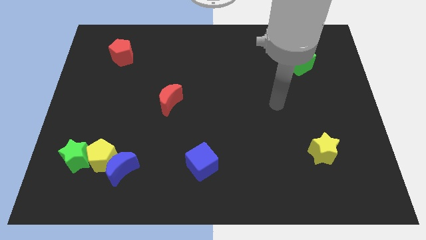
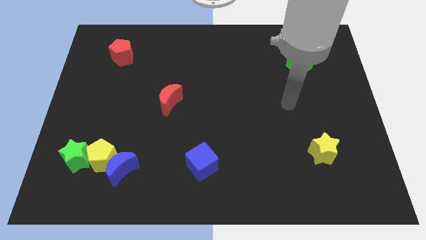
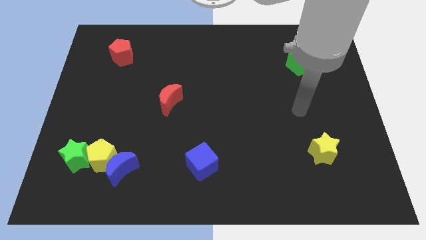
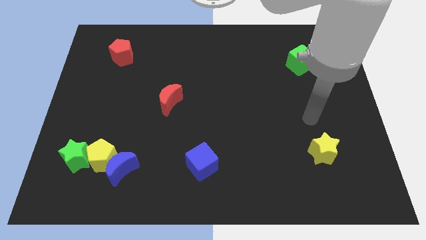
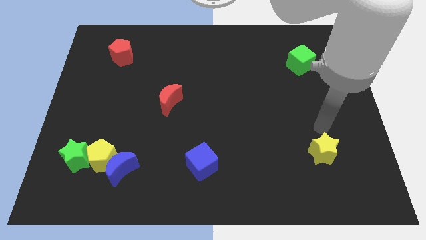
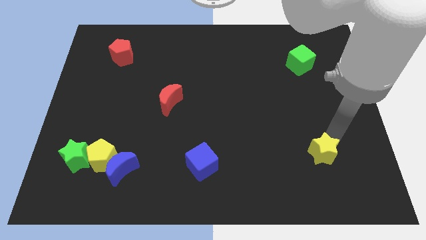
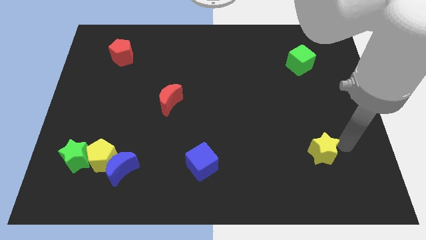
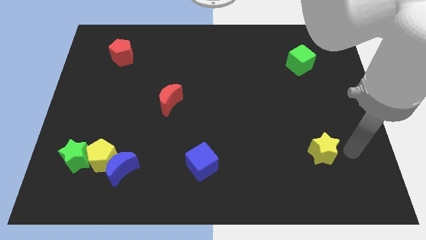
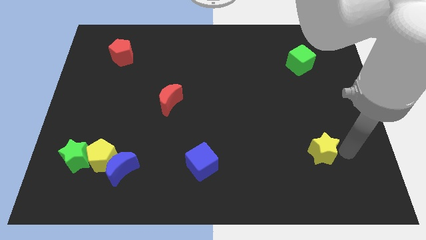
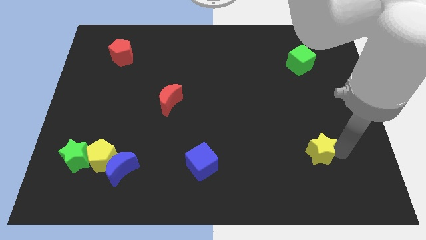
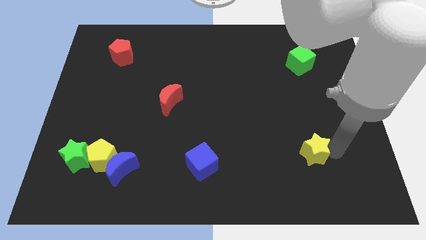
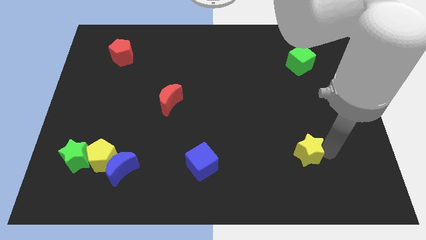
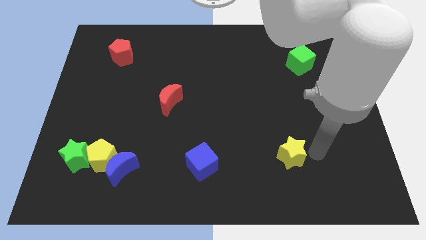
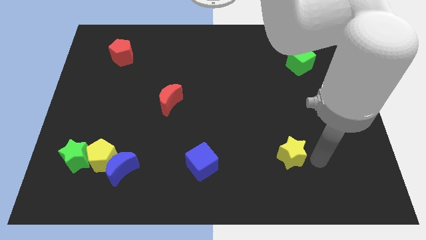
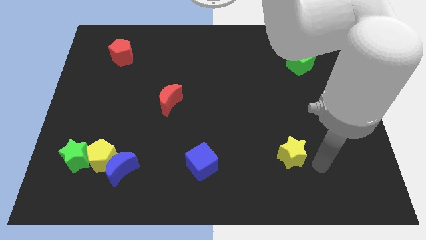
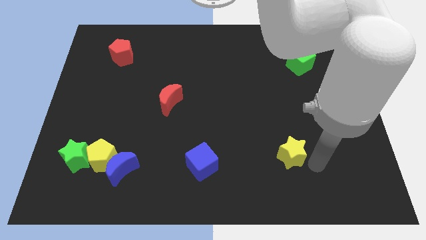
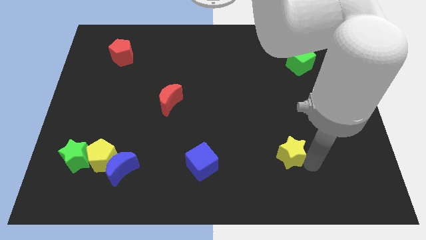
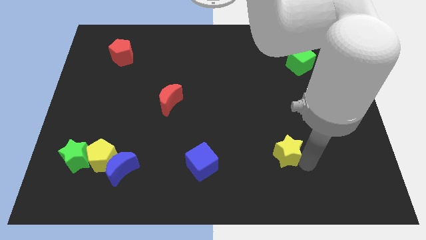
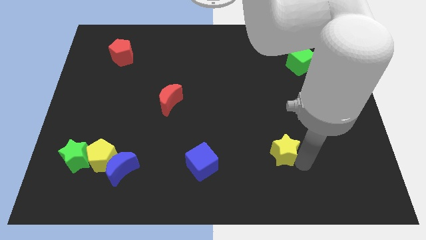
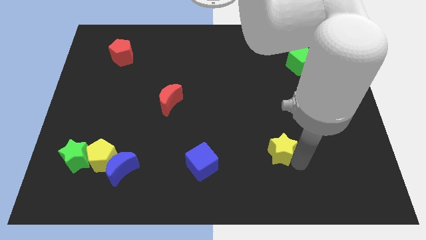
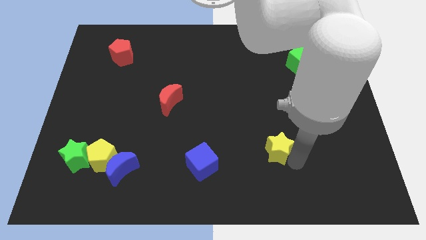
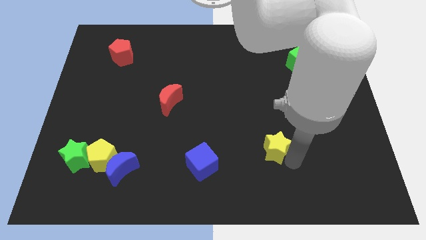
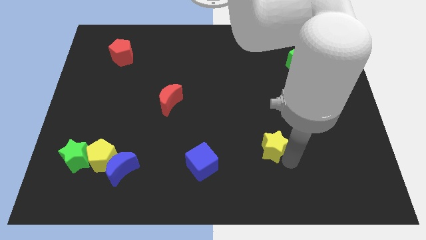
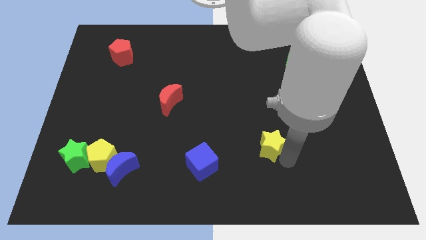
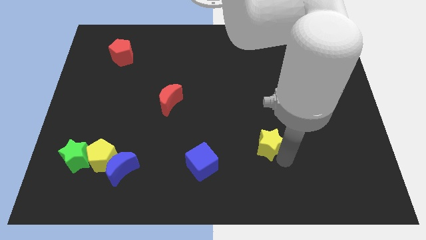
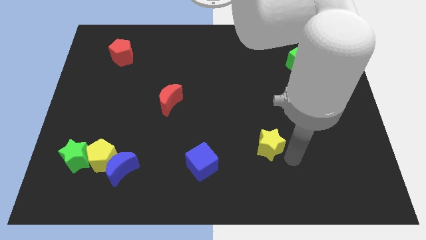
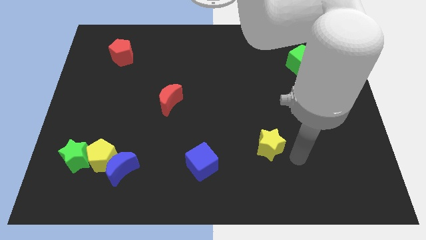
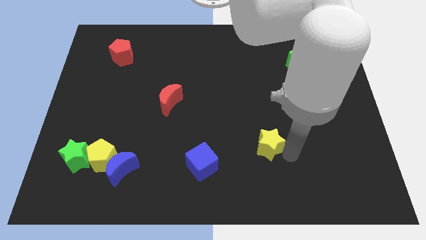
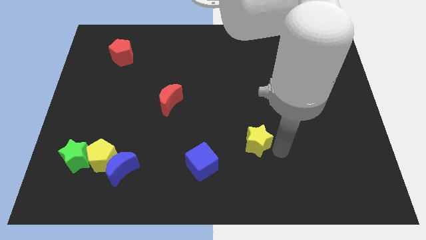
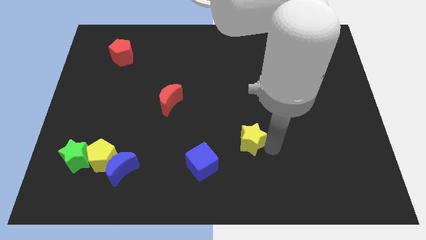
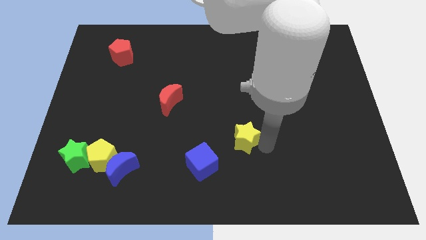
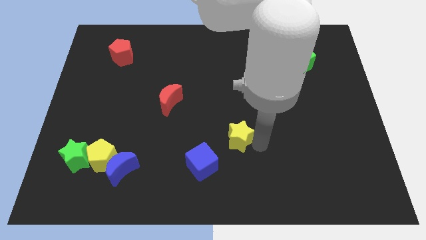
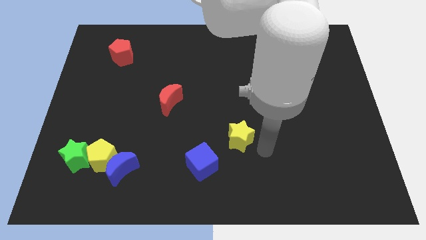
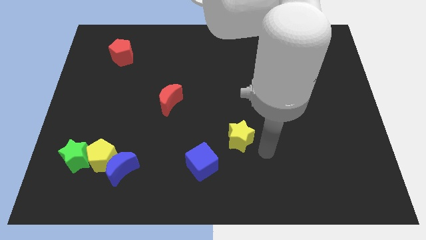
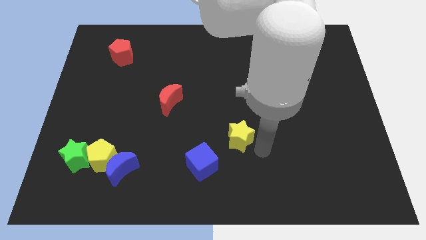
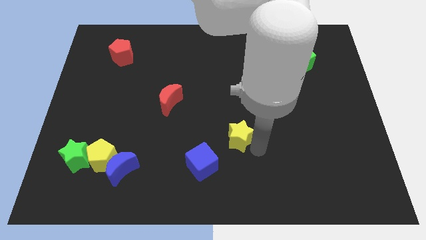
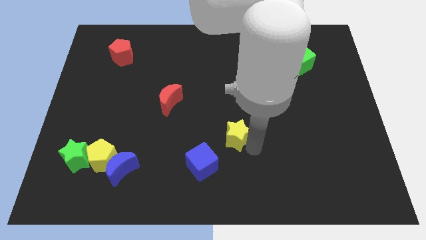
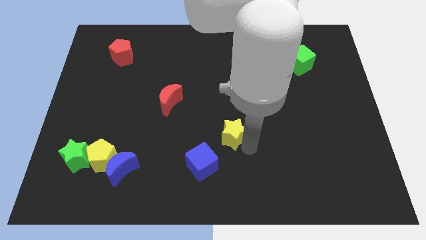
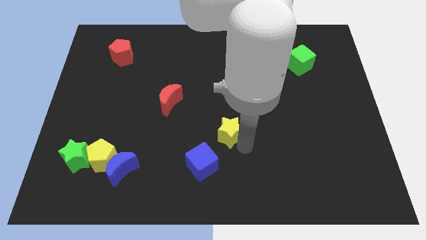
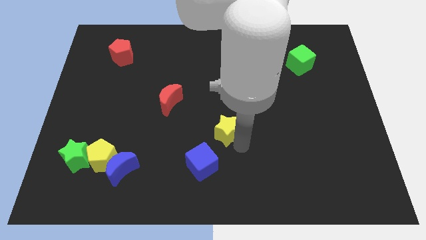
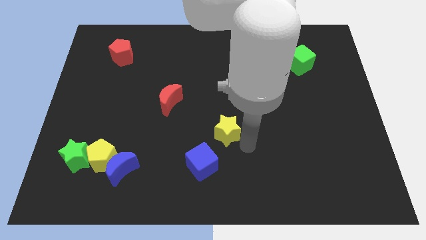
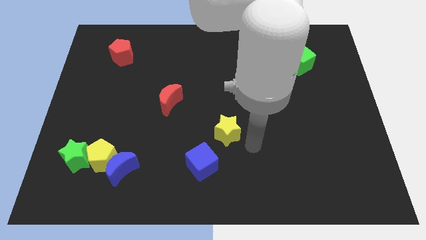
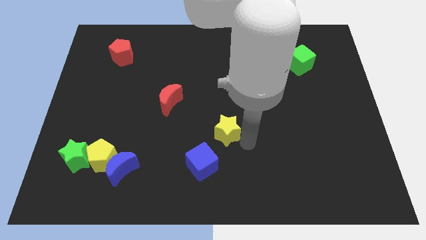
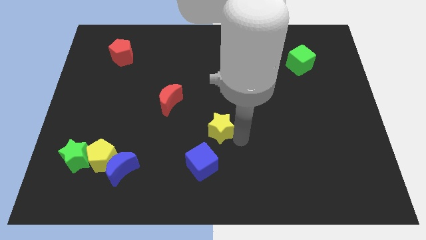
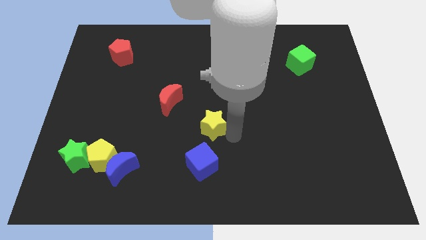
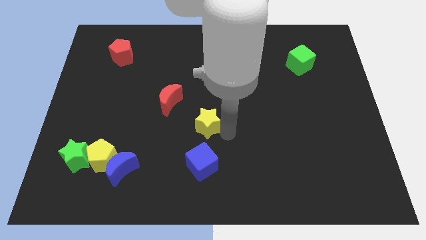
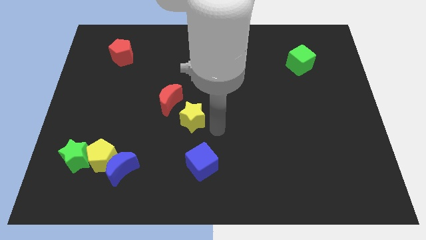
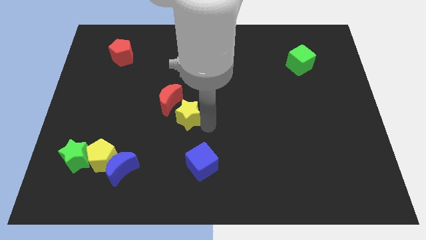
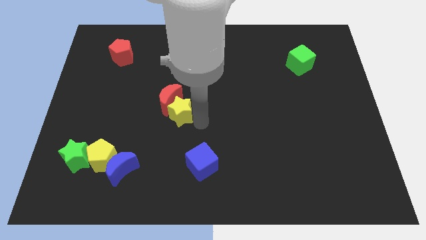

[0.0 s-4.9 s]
push the yellow star close to the red moon

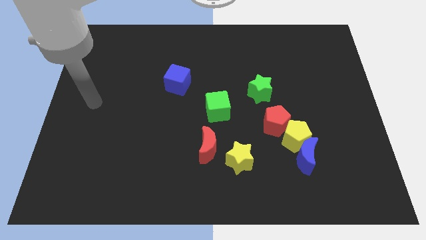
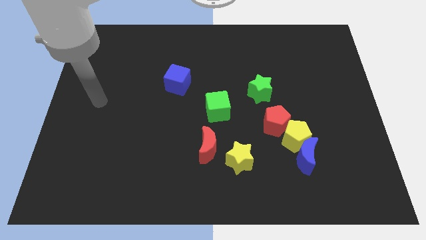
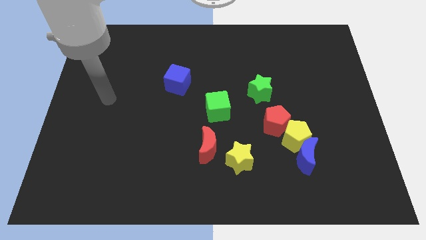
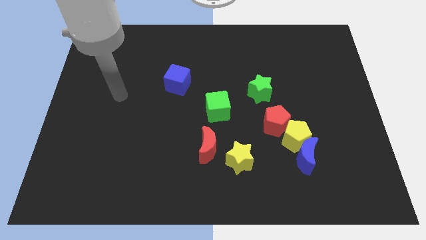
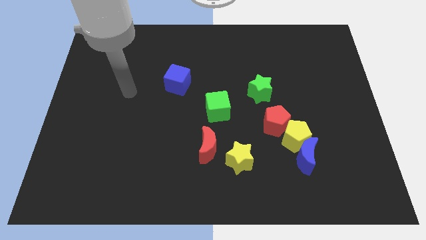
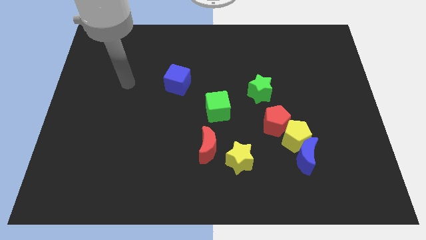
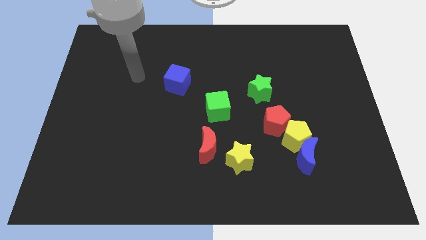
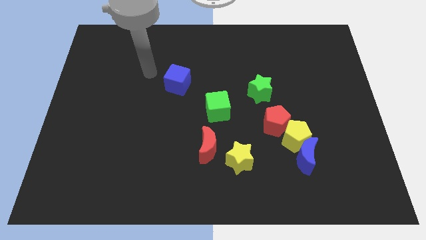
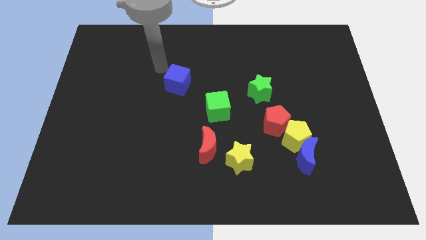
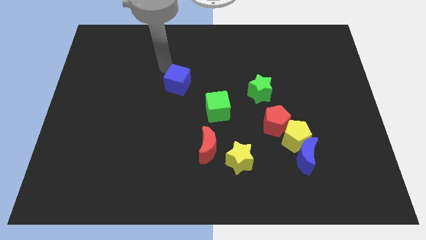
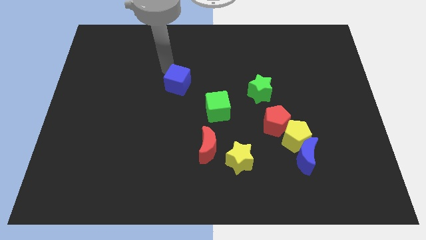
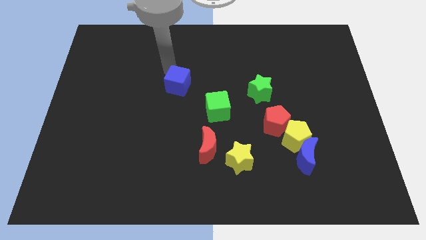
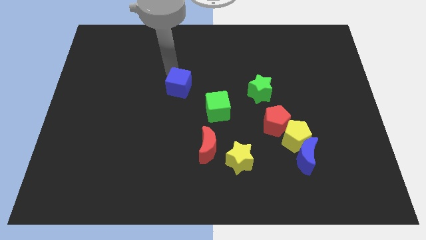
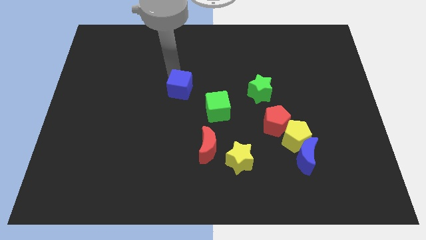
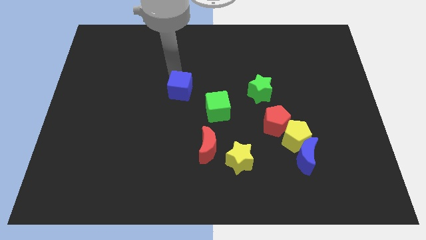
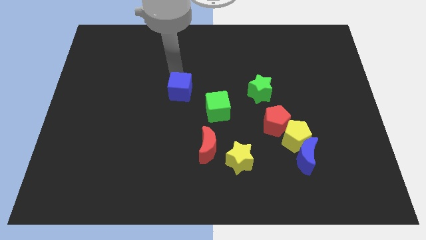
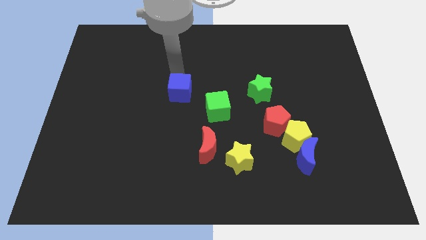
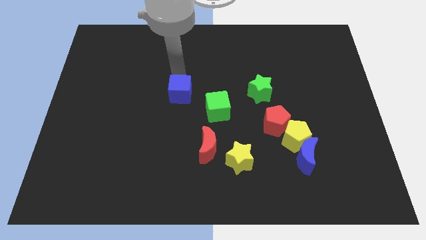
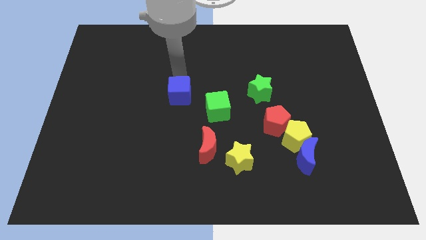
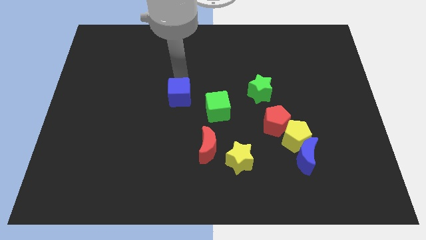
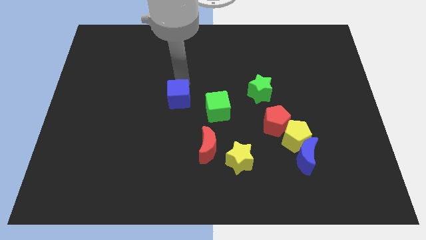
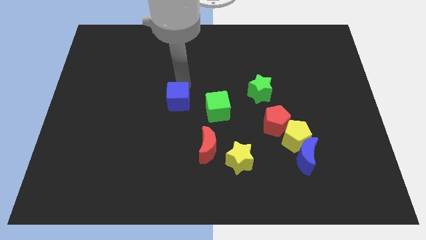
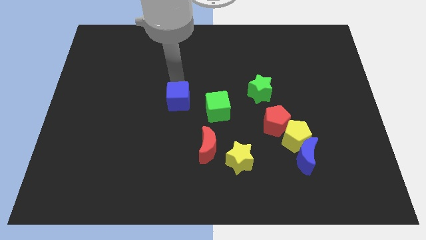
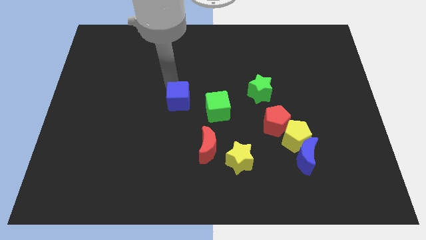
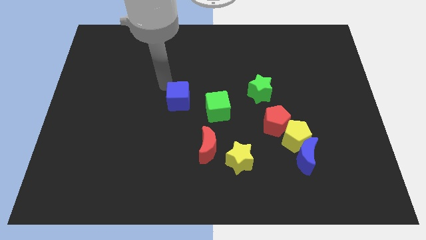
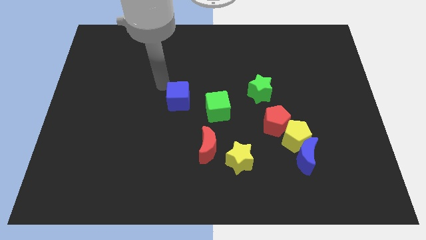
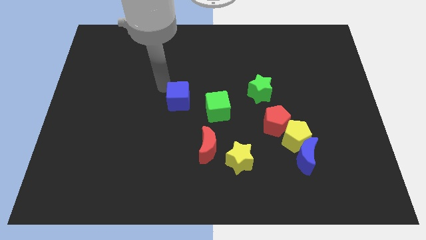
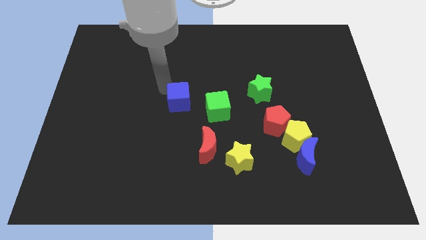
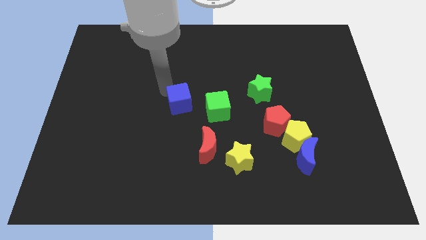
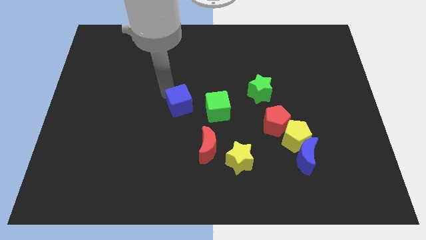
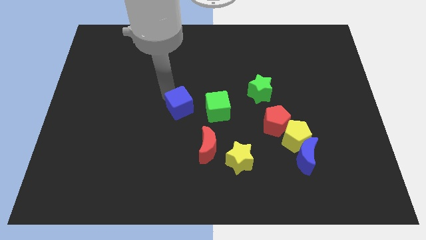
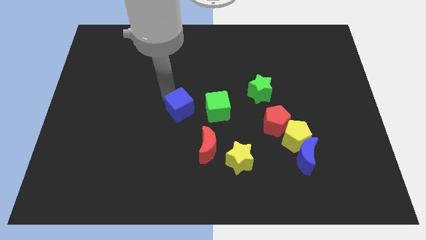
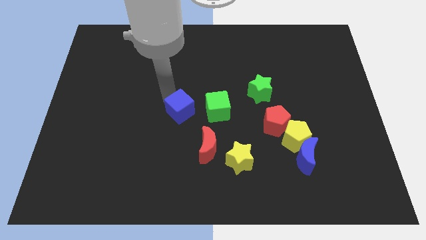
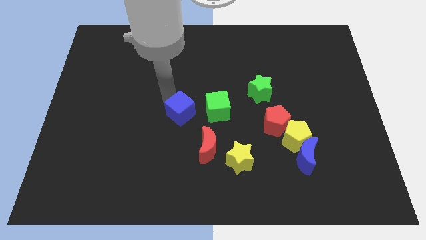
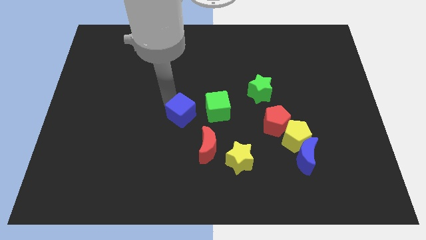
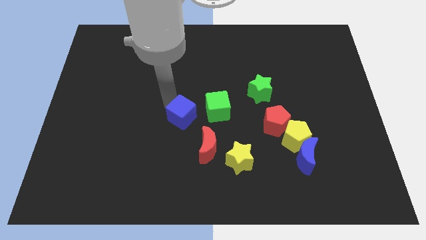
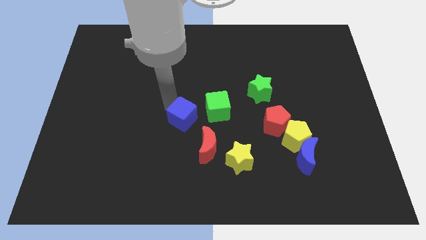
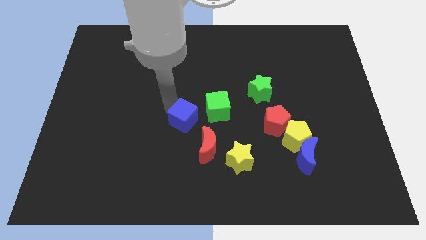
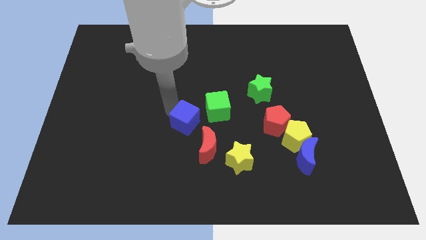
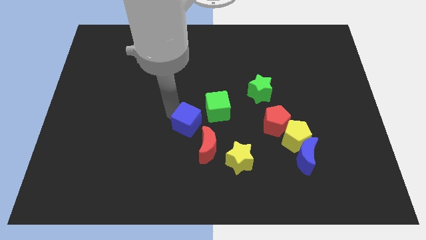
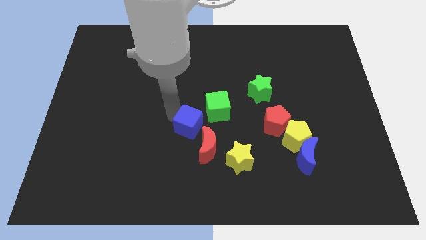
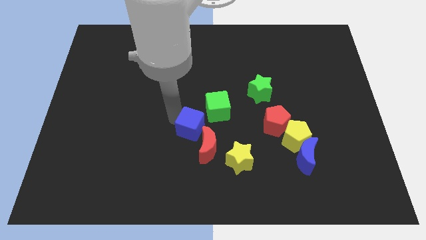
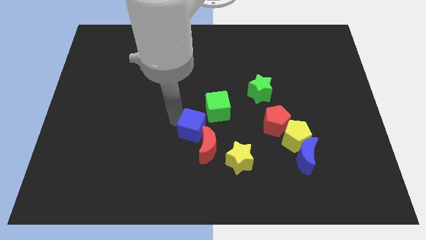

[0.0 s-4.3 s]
push the blue cube to the red moon
